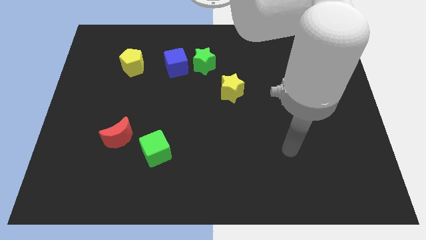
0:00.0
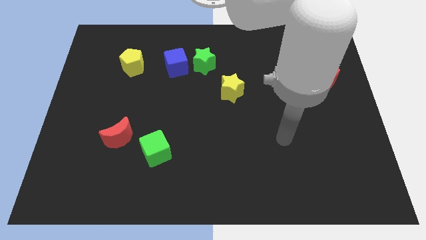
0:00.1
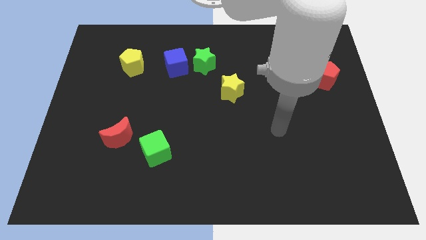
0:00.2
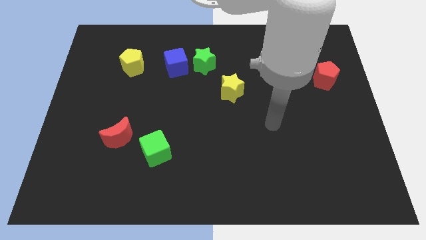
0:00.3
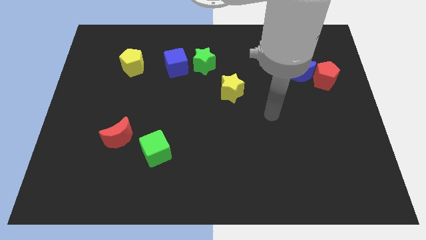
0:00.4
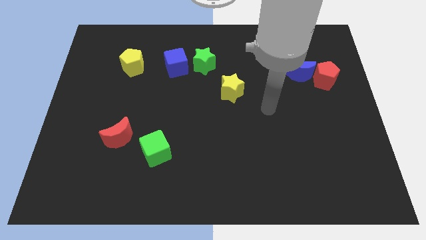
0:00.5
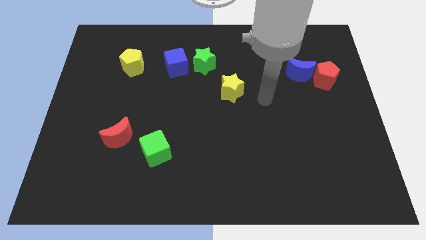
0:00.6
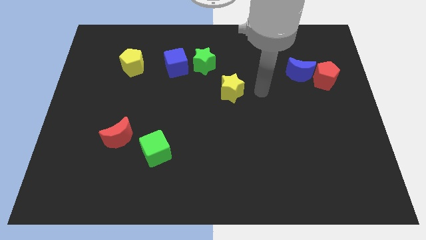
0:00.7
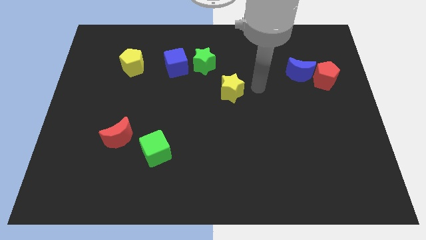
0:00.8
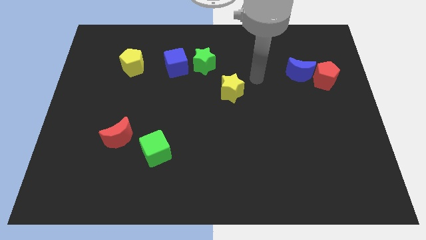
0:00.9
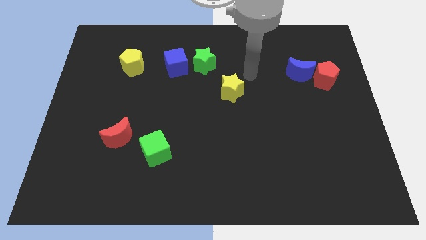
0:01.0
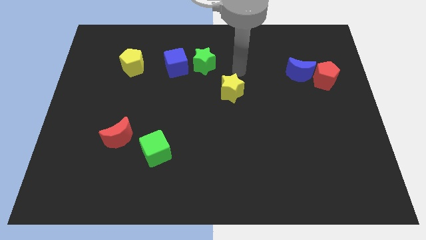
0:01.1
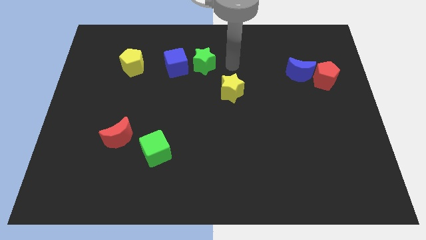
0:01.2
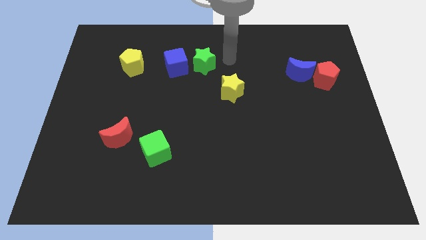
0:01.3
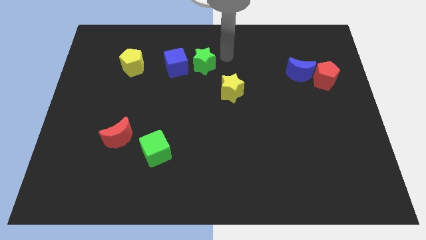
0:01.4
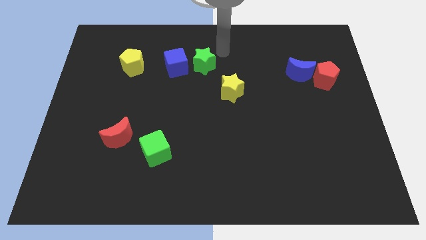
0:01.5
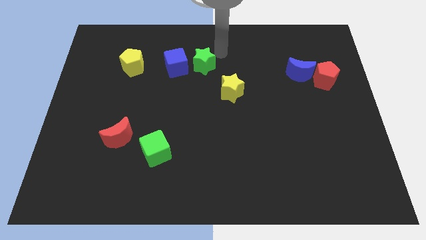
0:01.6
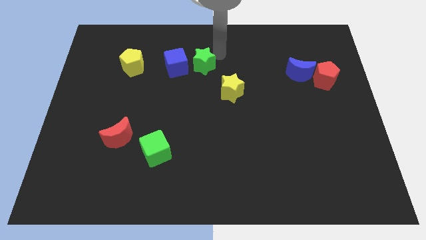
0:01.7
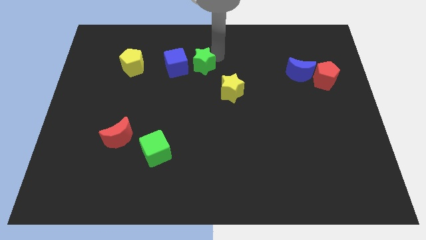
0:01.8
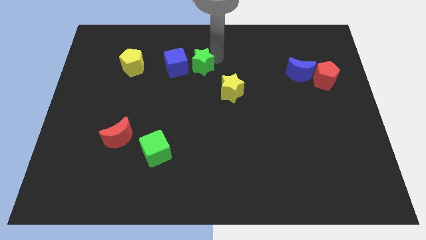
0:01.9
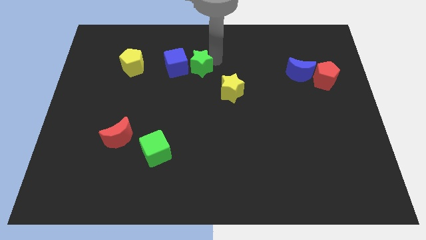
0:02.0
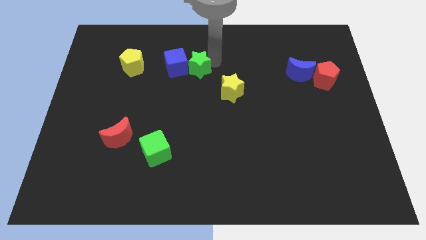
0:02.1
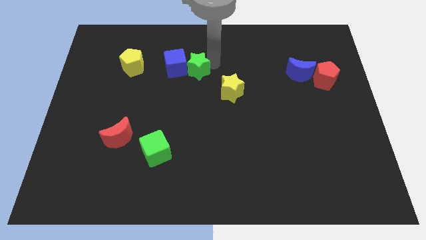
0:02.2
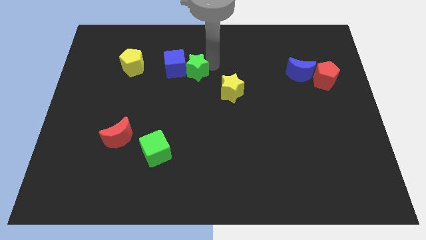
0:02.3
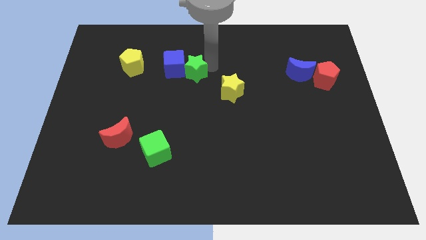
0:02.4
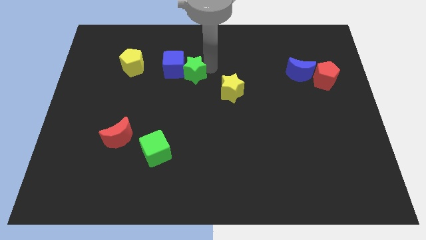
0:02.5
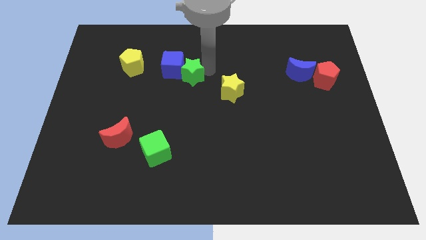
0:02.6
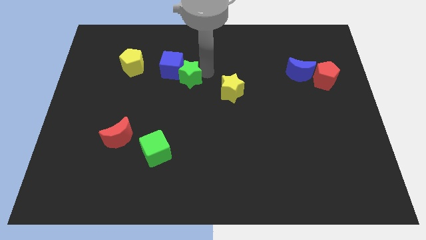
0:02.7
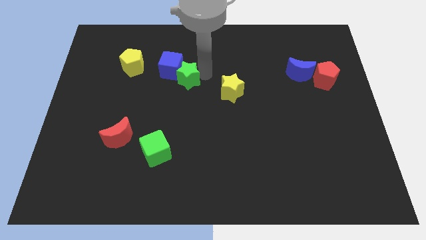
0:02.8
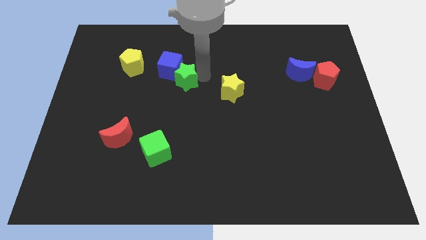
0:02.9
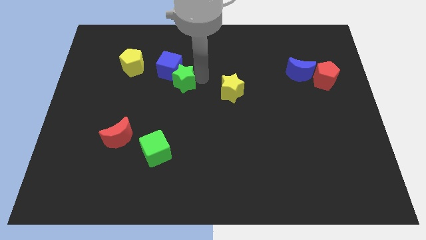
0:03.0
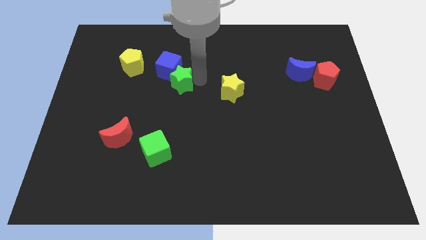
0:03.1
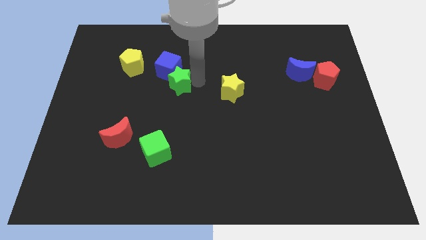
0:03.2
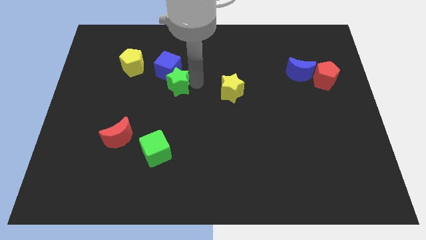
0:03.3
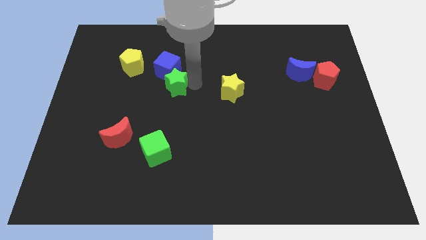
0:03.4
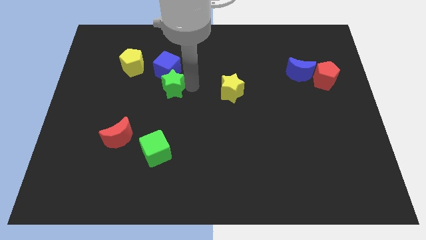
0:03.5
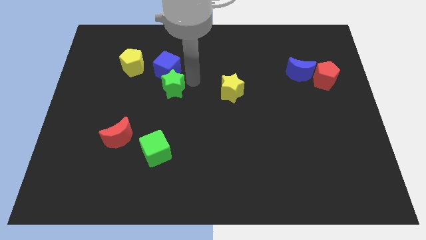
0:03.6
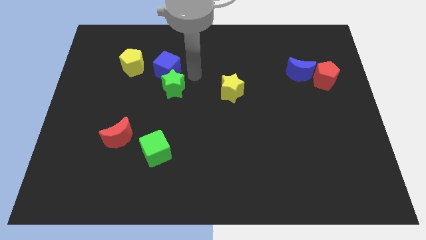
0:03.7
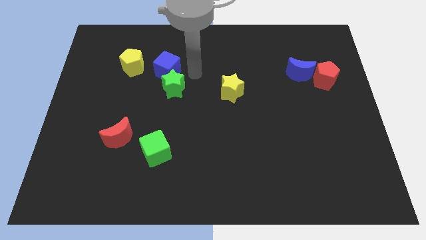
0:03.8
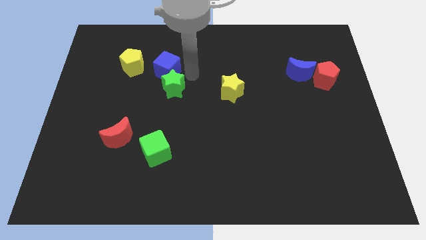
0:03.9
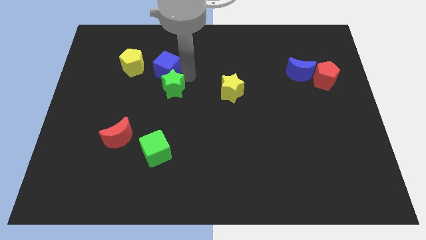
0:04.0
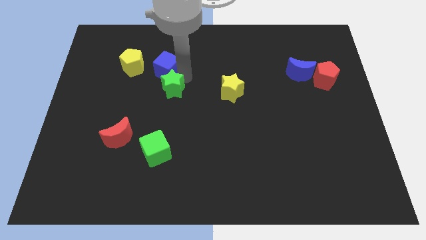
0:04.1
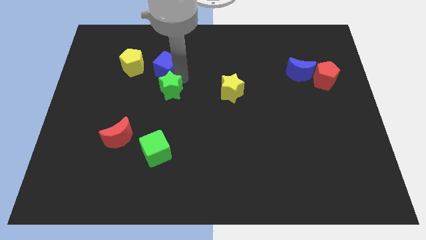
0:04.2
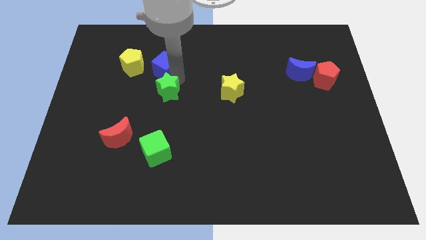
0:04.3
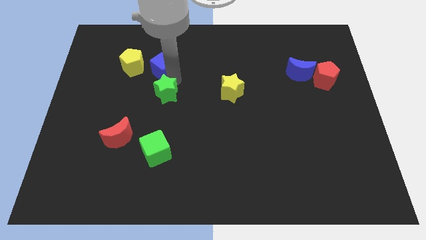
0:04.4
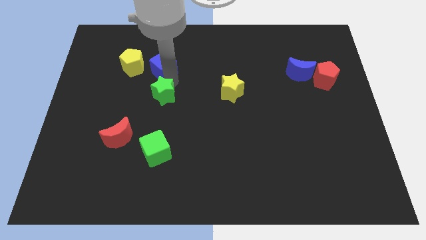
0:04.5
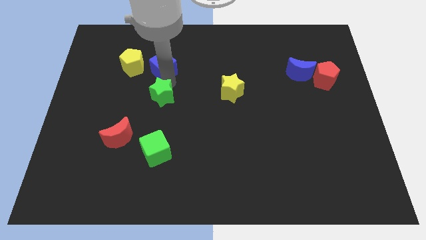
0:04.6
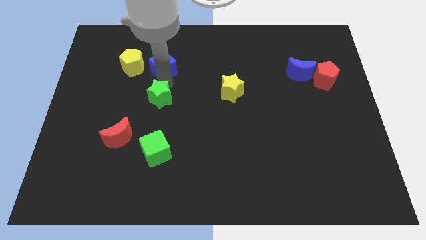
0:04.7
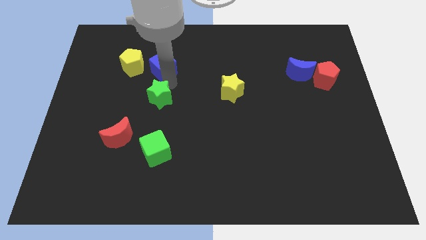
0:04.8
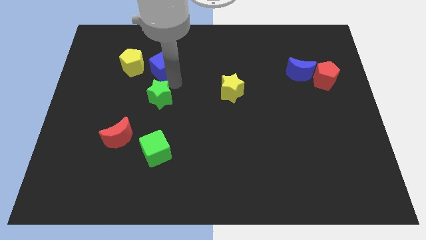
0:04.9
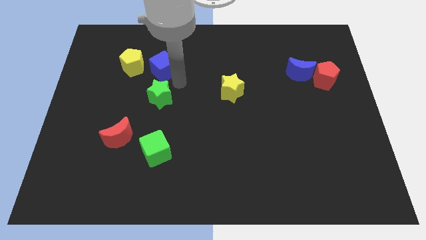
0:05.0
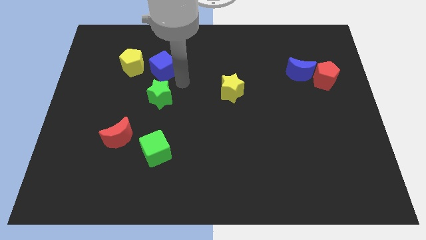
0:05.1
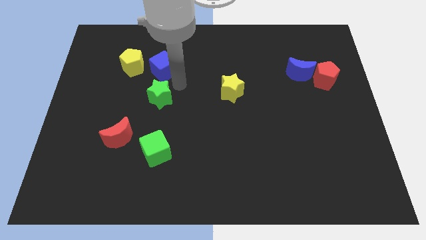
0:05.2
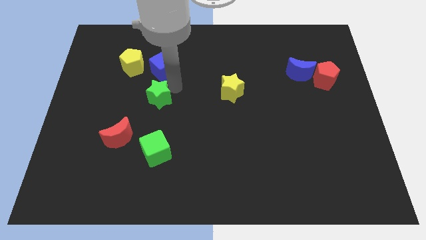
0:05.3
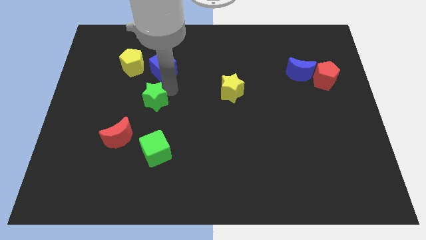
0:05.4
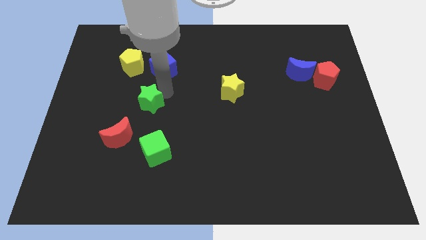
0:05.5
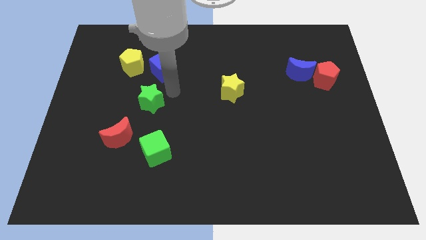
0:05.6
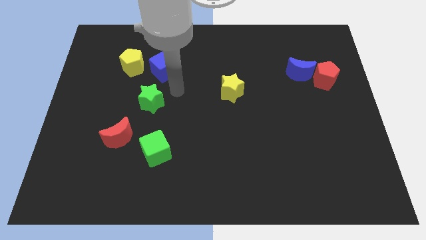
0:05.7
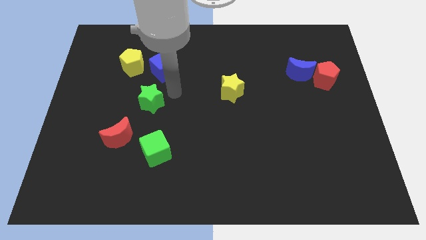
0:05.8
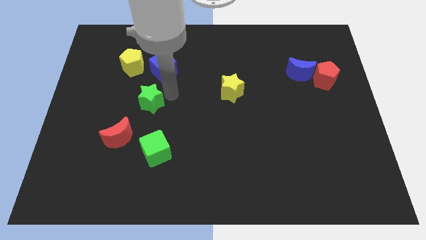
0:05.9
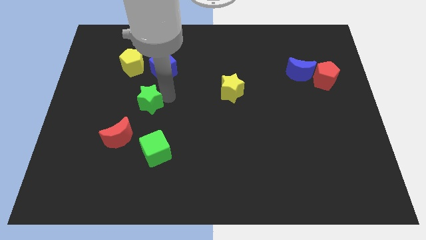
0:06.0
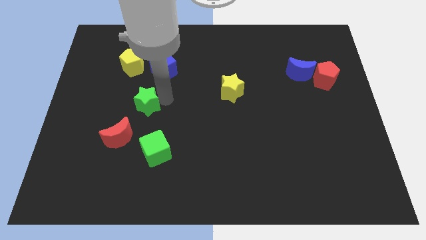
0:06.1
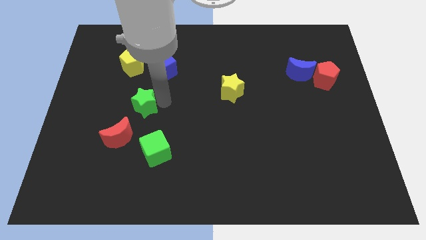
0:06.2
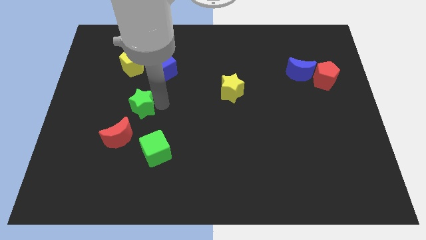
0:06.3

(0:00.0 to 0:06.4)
slide the green star down and to the left diagonally

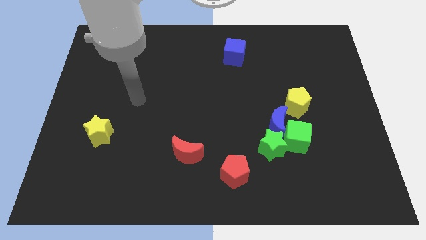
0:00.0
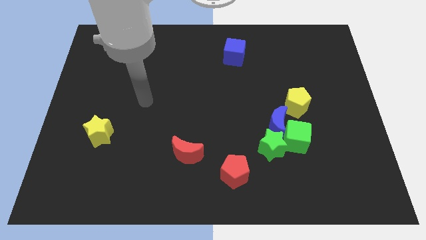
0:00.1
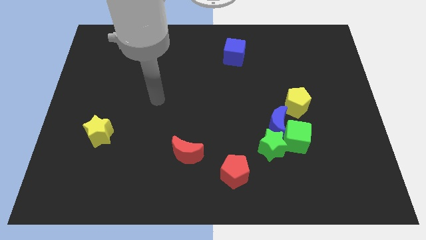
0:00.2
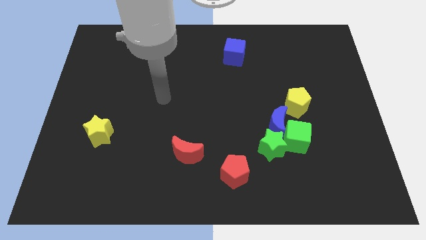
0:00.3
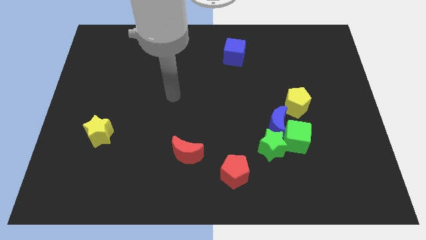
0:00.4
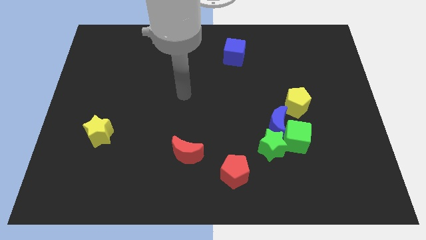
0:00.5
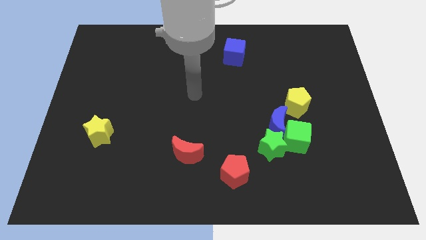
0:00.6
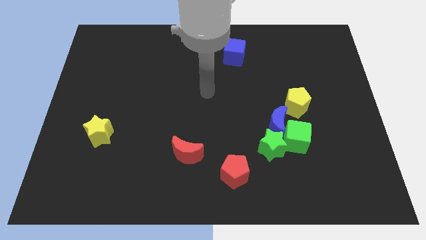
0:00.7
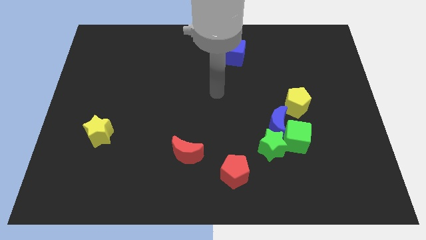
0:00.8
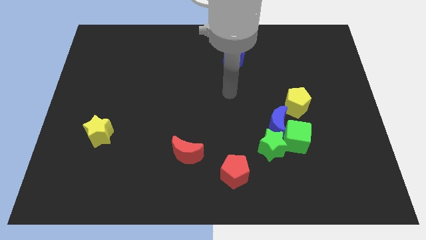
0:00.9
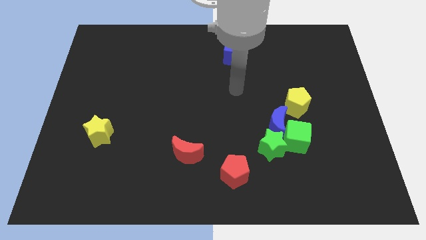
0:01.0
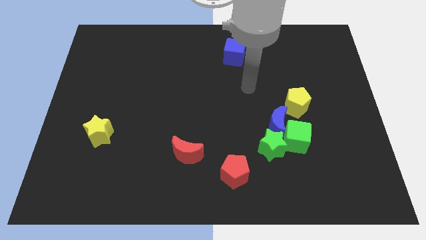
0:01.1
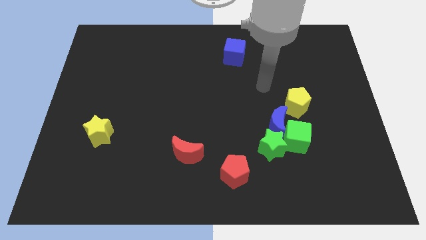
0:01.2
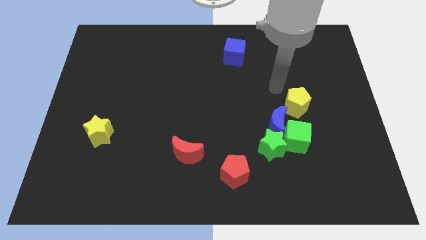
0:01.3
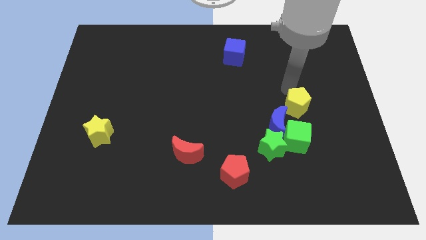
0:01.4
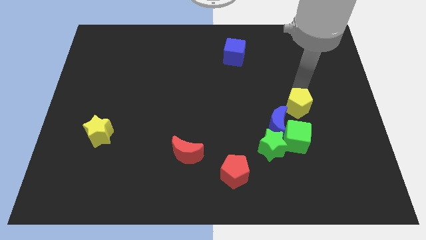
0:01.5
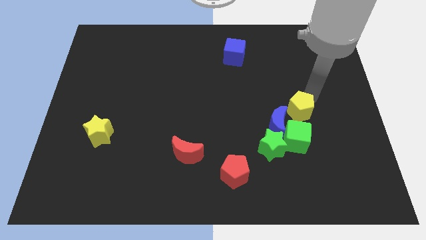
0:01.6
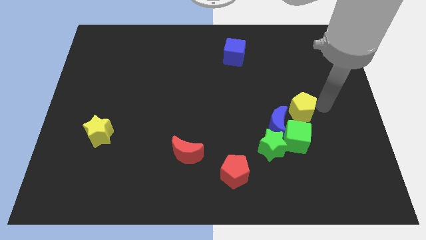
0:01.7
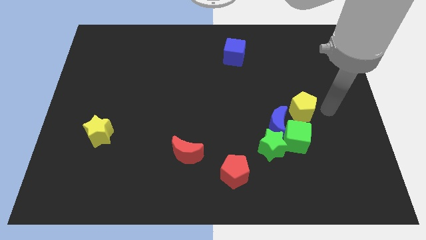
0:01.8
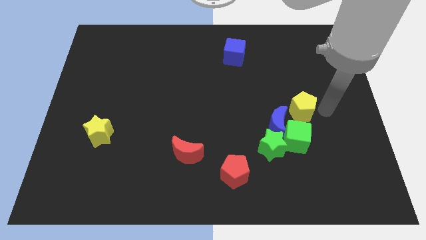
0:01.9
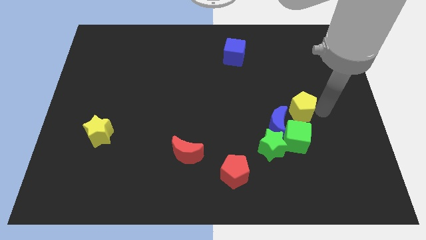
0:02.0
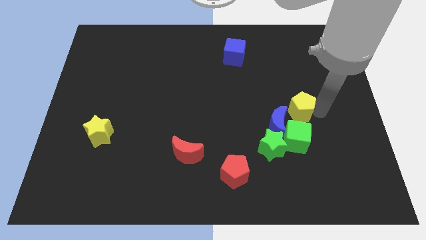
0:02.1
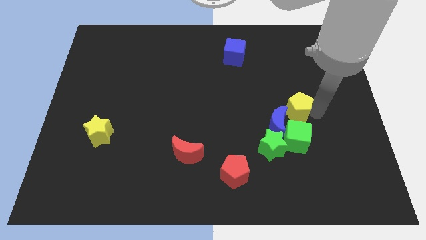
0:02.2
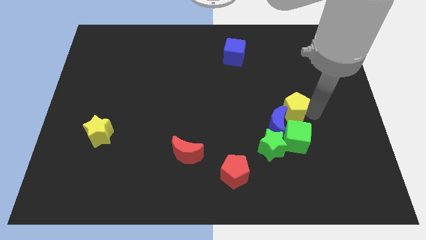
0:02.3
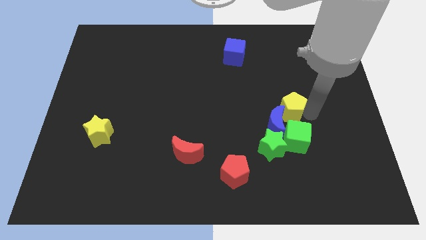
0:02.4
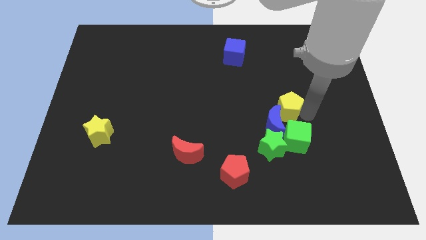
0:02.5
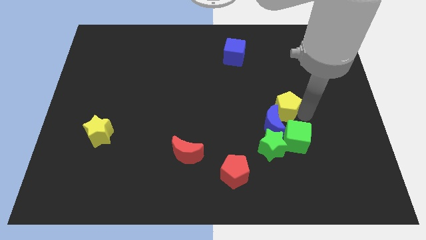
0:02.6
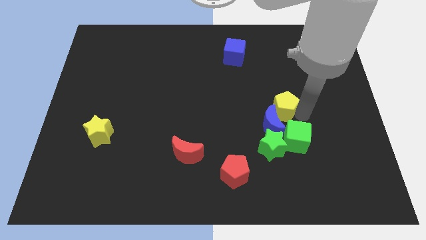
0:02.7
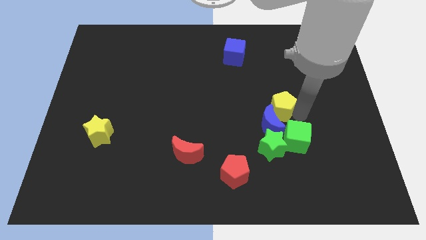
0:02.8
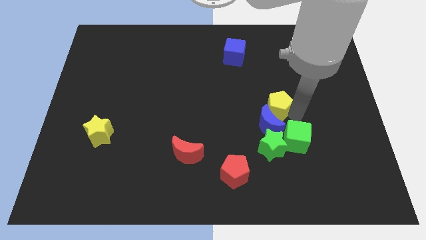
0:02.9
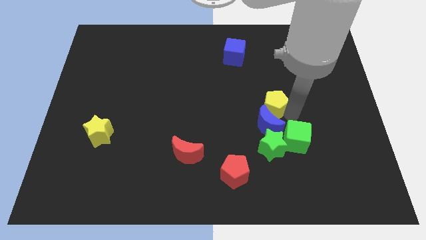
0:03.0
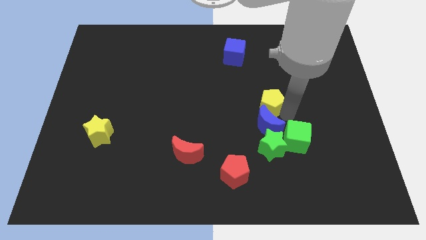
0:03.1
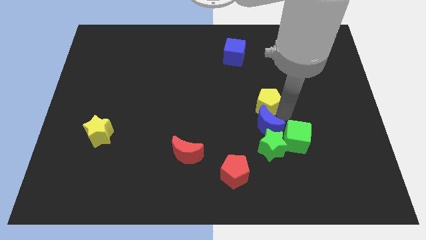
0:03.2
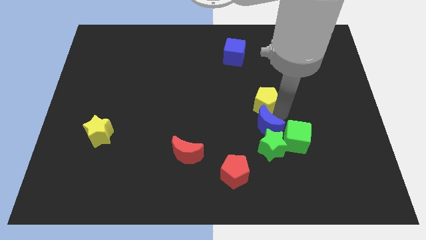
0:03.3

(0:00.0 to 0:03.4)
slide the yellow pentagon a little bit left
